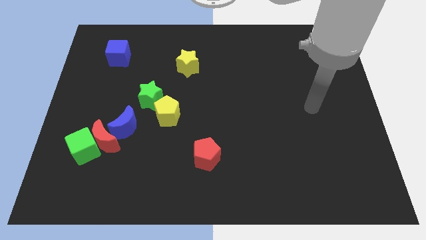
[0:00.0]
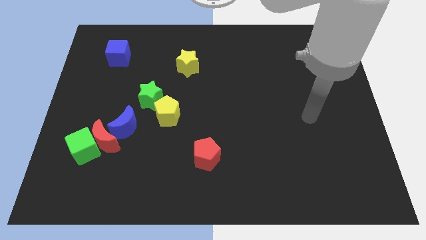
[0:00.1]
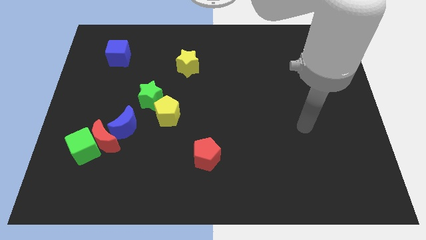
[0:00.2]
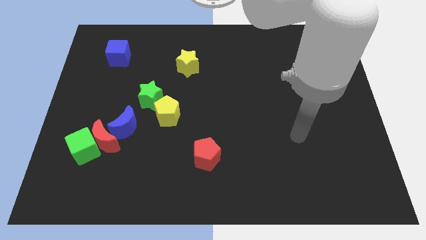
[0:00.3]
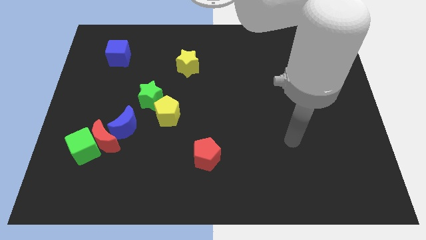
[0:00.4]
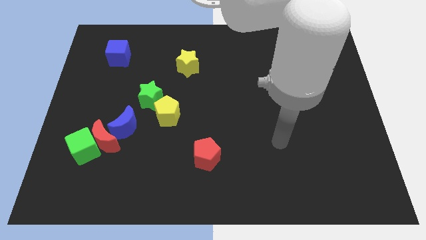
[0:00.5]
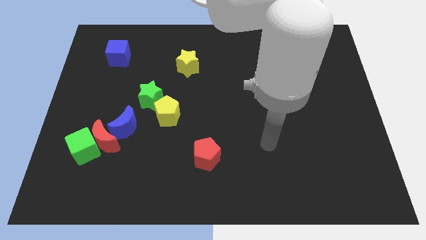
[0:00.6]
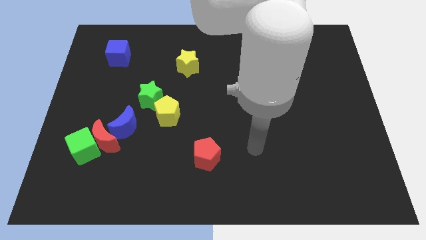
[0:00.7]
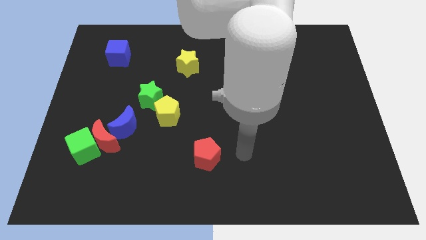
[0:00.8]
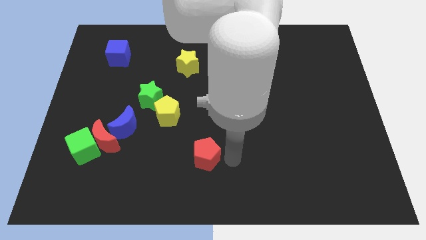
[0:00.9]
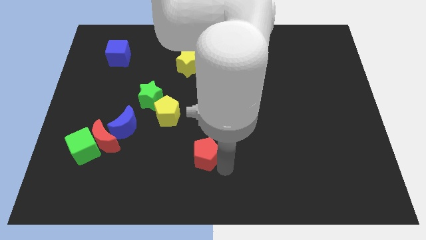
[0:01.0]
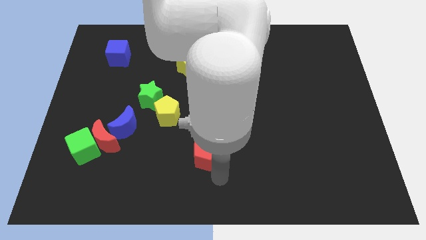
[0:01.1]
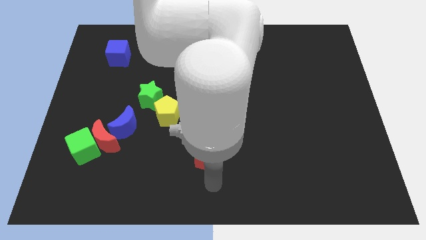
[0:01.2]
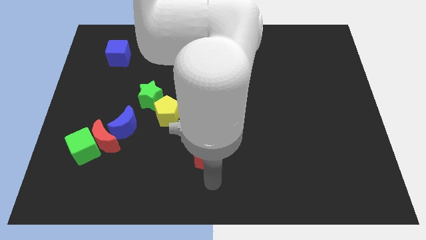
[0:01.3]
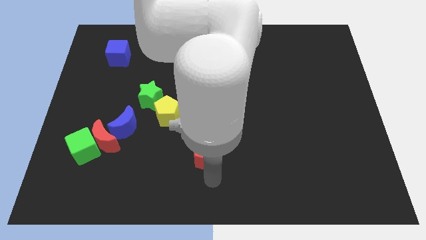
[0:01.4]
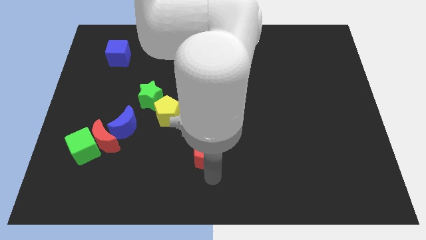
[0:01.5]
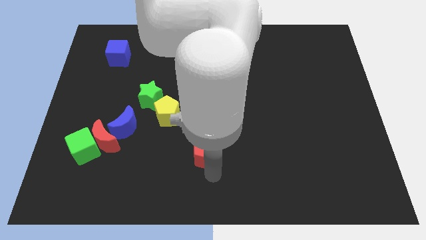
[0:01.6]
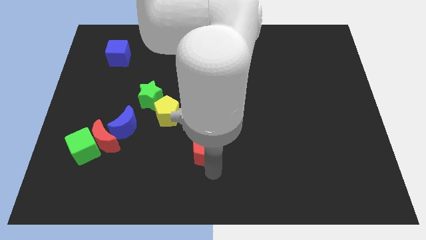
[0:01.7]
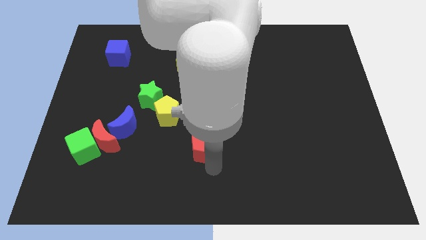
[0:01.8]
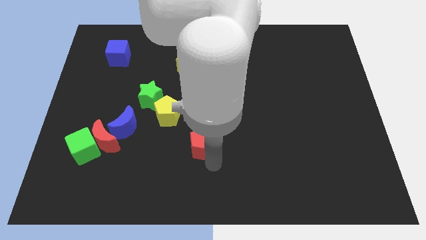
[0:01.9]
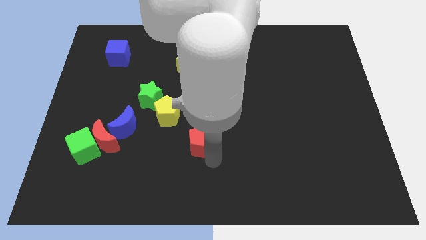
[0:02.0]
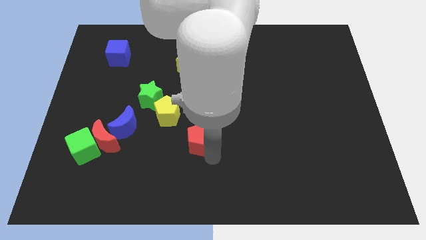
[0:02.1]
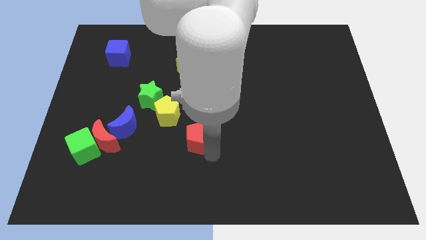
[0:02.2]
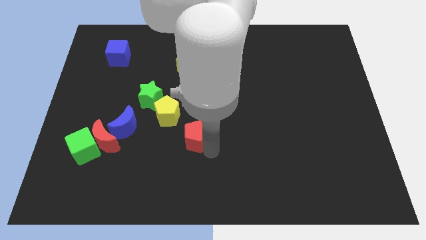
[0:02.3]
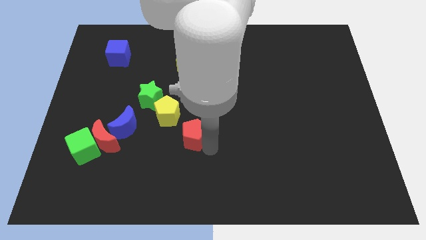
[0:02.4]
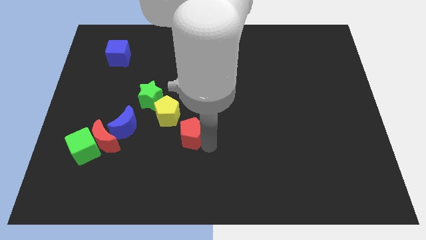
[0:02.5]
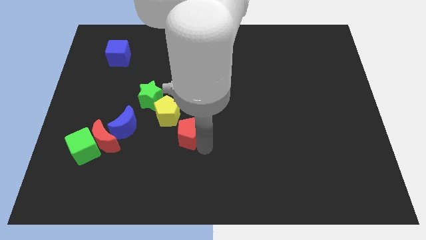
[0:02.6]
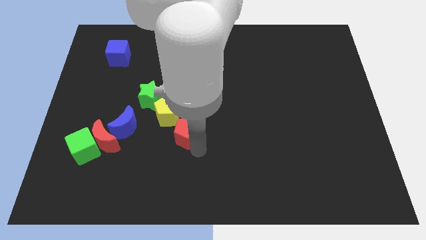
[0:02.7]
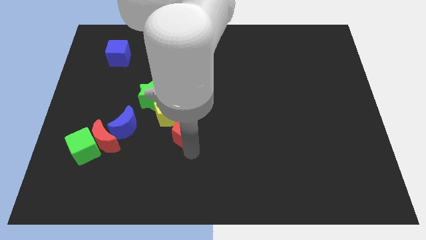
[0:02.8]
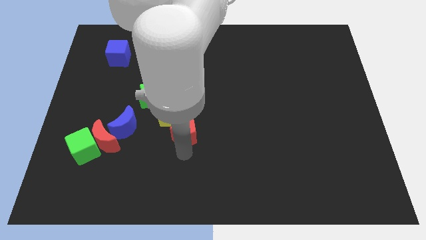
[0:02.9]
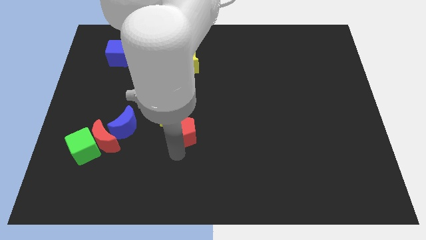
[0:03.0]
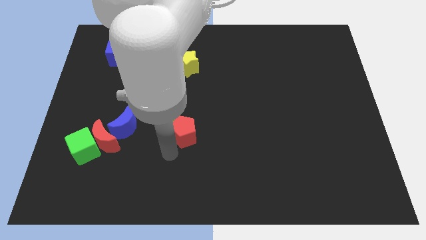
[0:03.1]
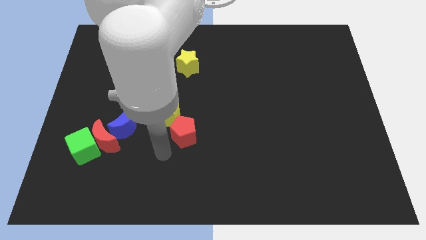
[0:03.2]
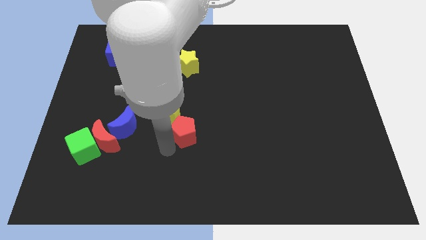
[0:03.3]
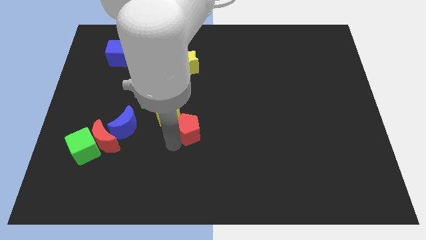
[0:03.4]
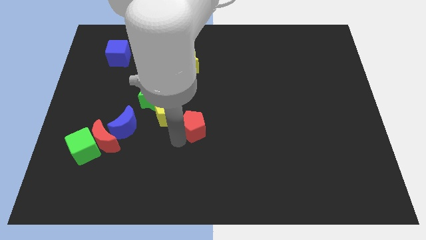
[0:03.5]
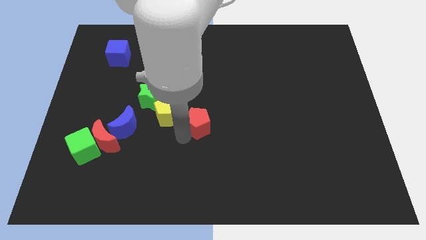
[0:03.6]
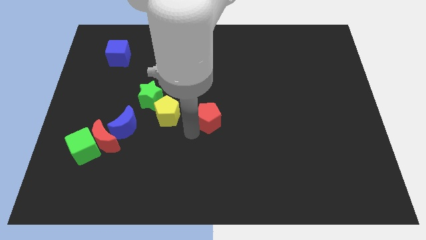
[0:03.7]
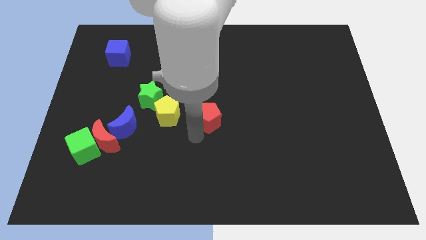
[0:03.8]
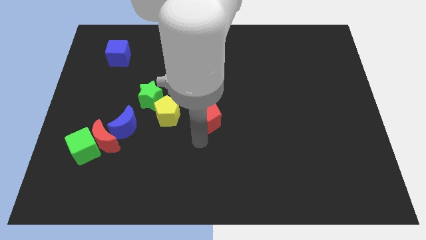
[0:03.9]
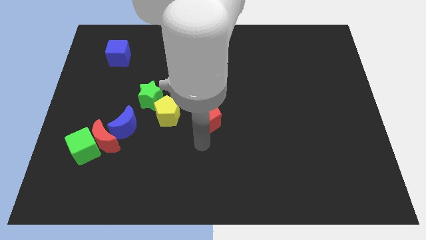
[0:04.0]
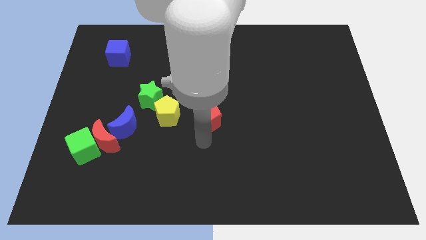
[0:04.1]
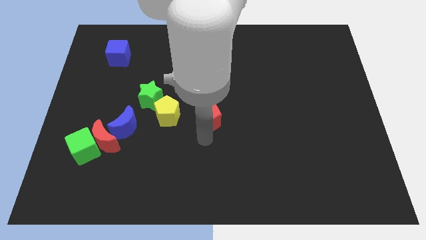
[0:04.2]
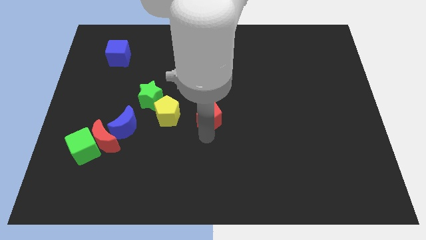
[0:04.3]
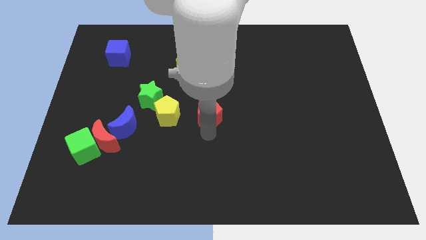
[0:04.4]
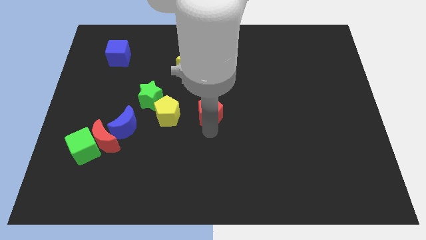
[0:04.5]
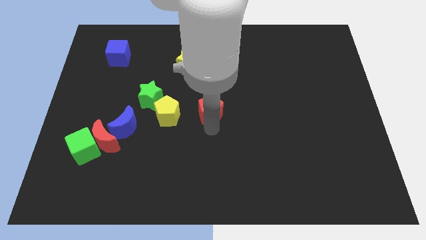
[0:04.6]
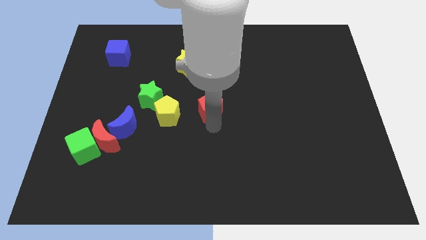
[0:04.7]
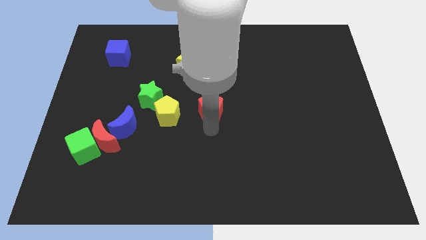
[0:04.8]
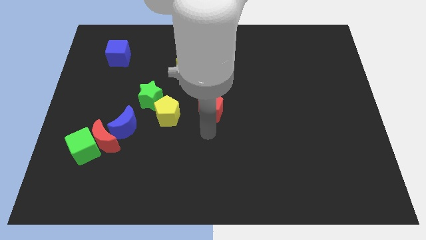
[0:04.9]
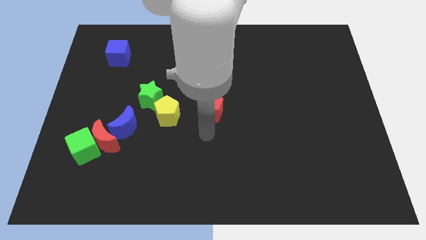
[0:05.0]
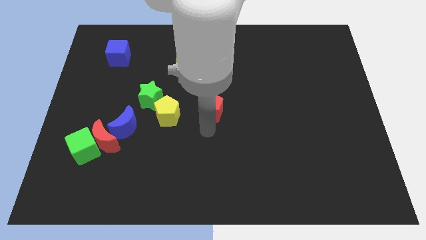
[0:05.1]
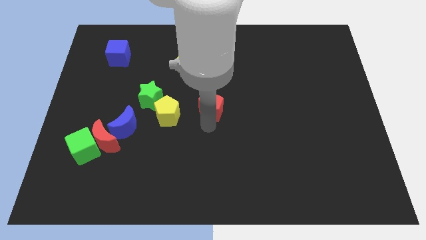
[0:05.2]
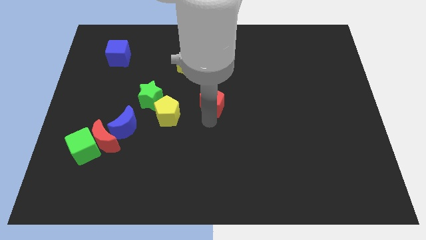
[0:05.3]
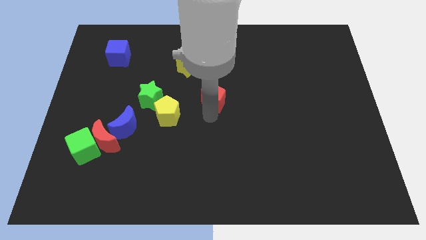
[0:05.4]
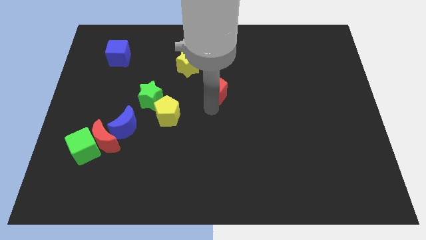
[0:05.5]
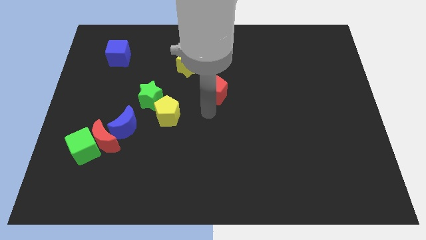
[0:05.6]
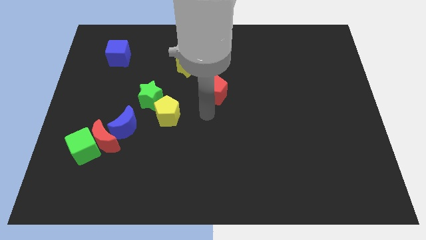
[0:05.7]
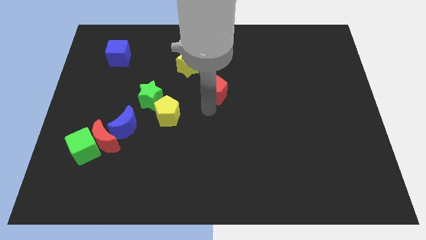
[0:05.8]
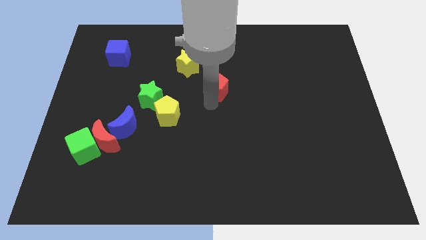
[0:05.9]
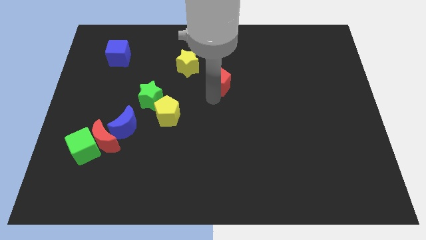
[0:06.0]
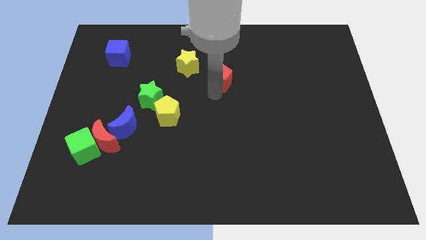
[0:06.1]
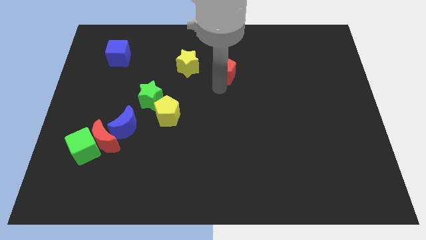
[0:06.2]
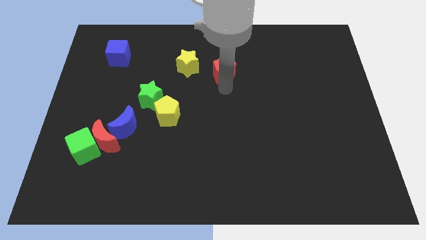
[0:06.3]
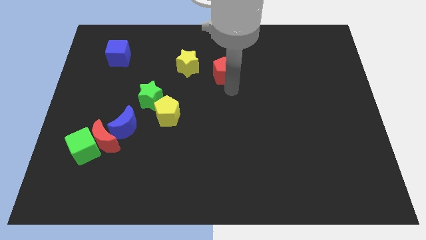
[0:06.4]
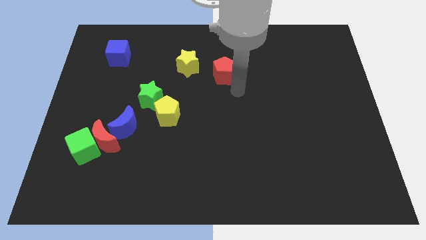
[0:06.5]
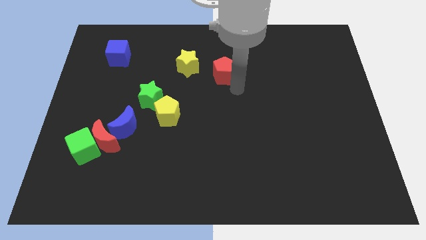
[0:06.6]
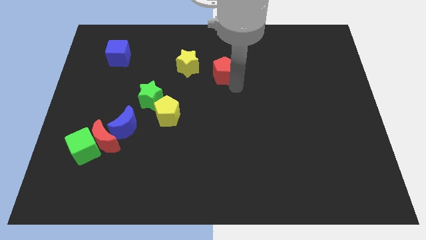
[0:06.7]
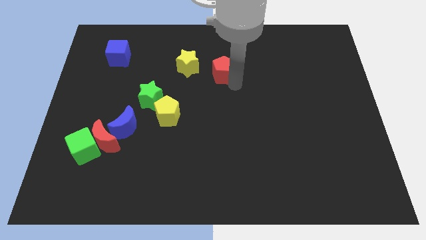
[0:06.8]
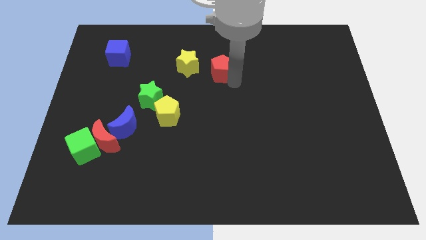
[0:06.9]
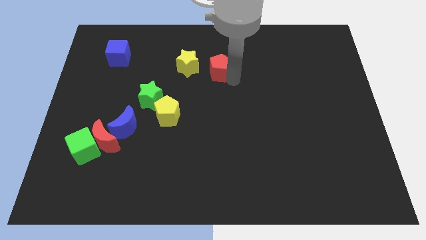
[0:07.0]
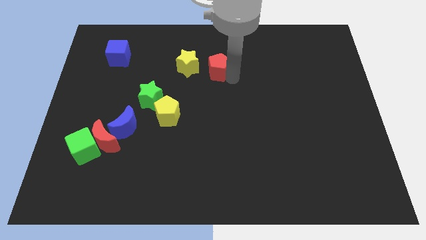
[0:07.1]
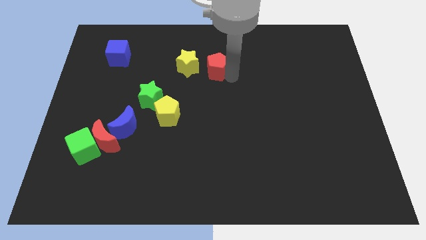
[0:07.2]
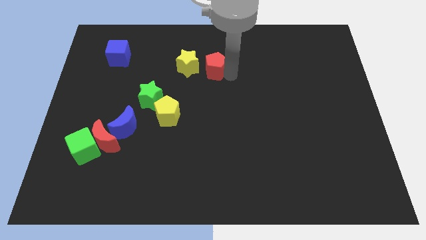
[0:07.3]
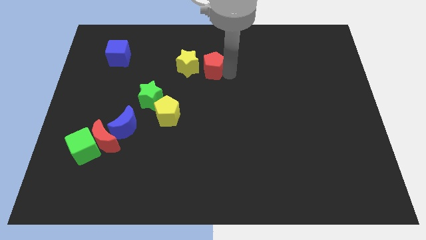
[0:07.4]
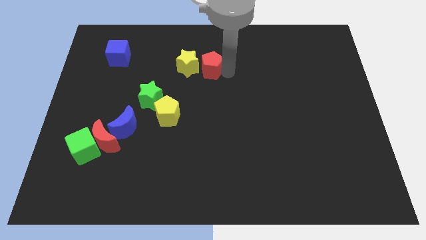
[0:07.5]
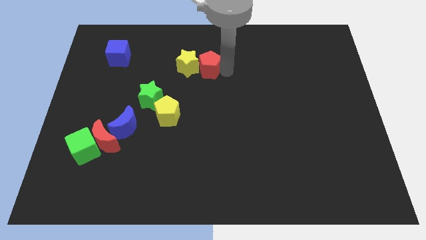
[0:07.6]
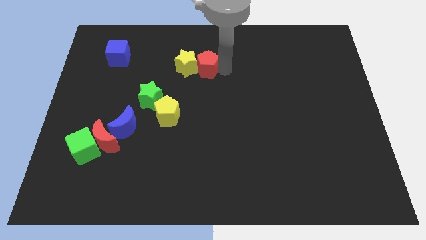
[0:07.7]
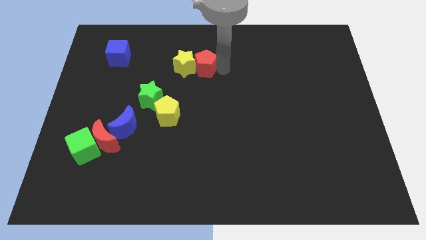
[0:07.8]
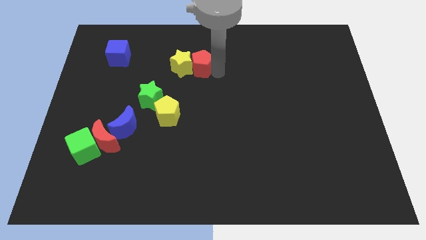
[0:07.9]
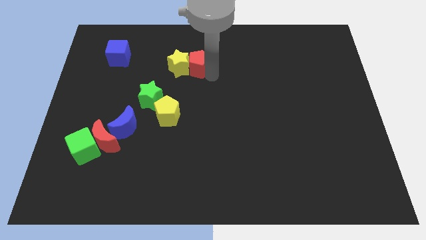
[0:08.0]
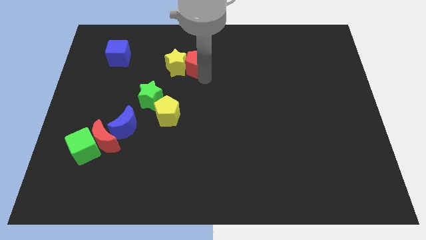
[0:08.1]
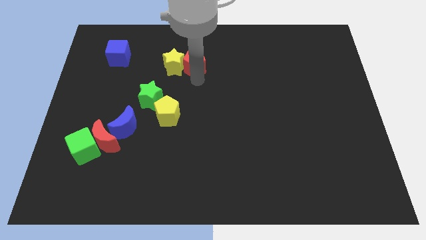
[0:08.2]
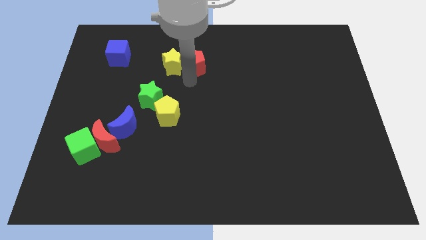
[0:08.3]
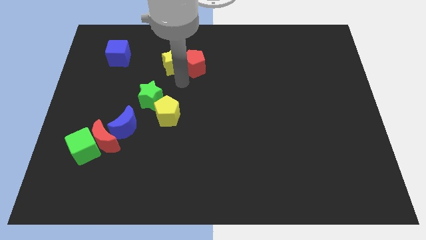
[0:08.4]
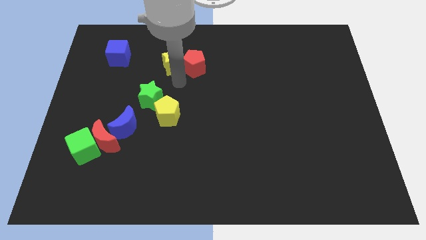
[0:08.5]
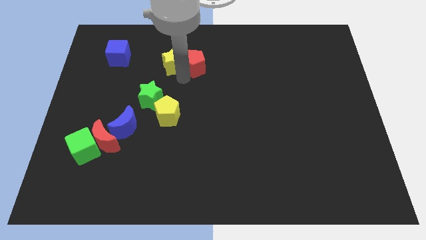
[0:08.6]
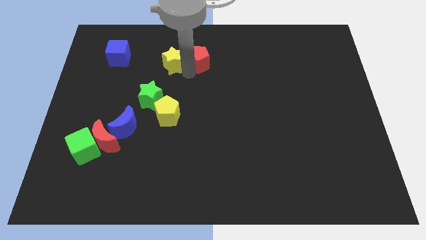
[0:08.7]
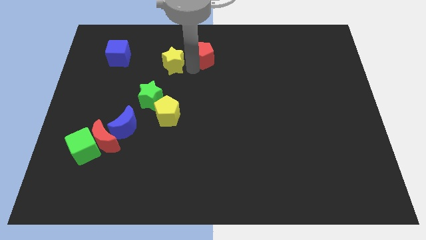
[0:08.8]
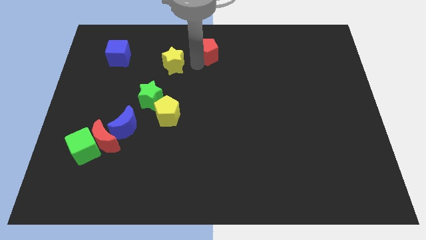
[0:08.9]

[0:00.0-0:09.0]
move the red pentagon to the towards your base
